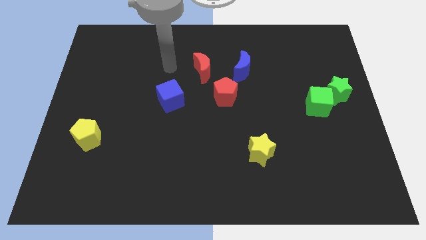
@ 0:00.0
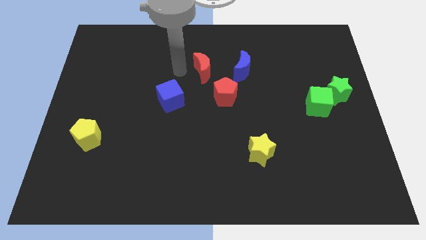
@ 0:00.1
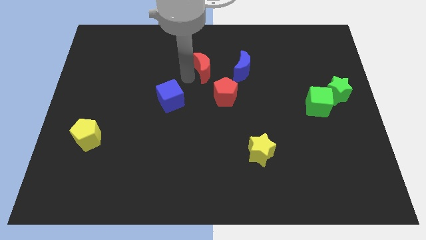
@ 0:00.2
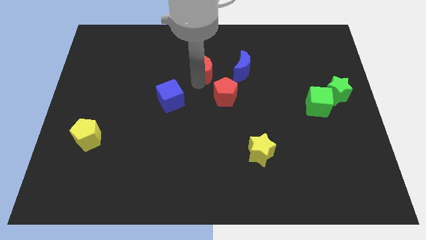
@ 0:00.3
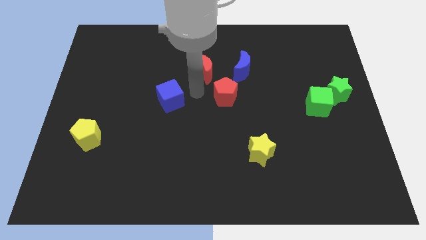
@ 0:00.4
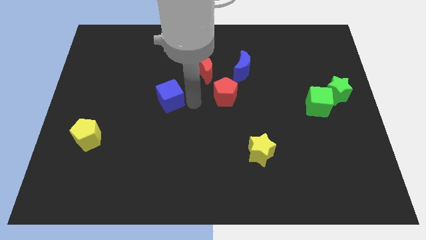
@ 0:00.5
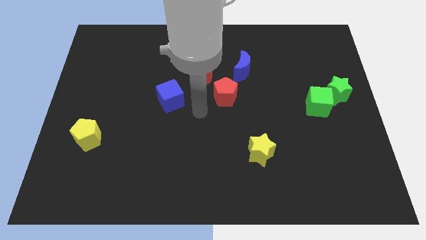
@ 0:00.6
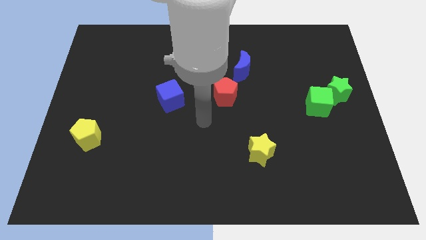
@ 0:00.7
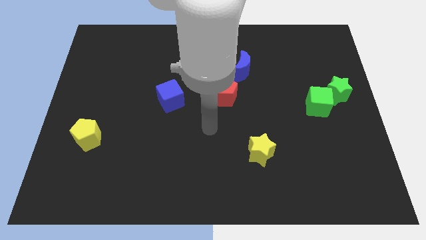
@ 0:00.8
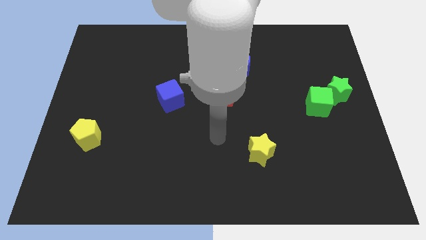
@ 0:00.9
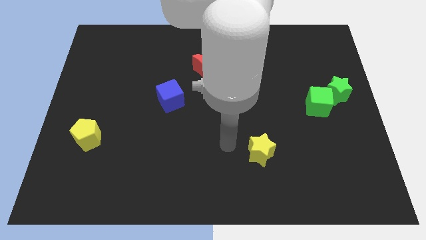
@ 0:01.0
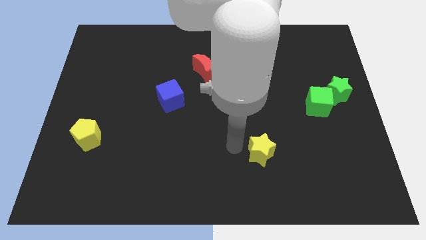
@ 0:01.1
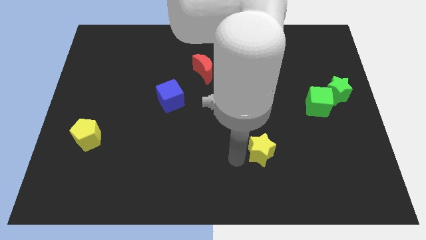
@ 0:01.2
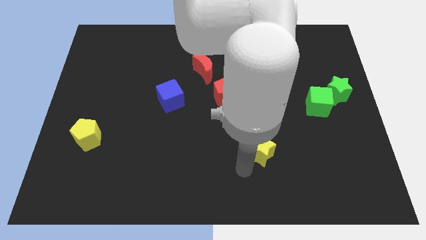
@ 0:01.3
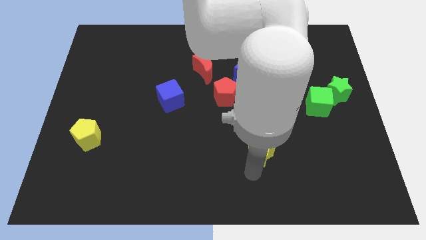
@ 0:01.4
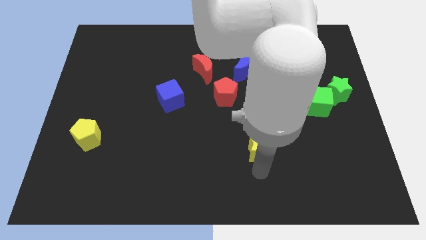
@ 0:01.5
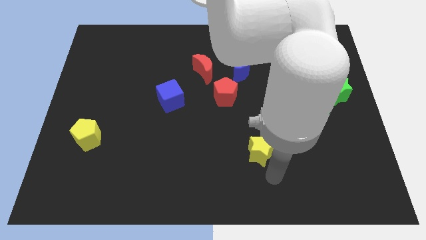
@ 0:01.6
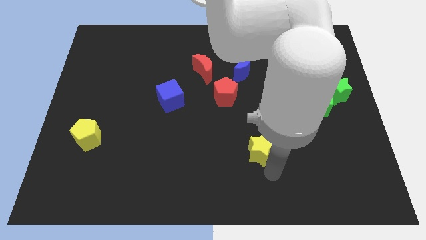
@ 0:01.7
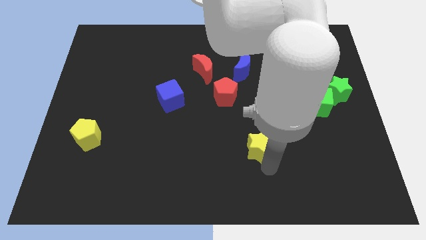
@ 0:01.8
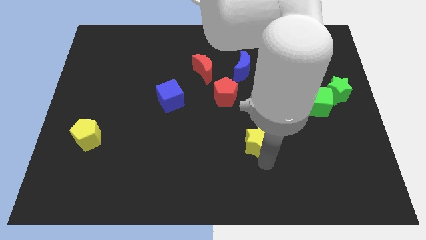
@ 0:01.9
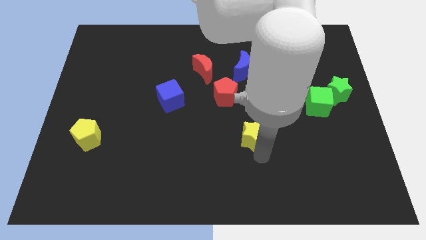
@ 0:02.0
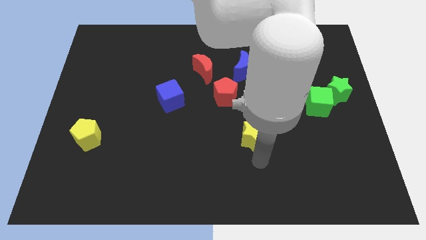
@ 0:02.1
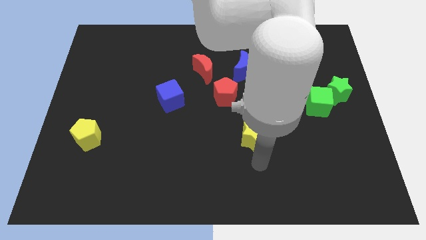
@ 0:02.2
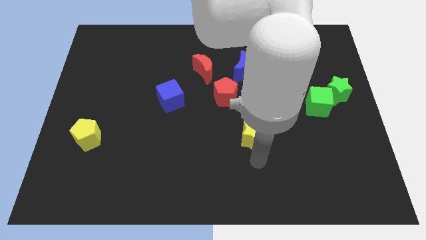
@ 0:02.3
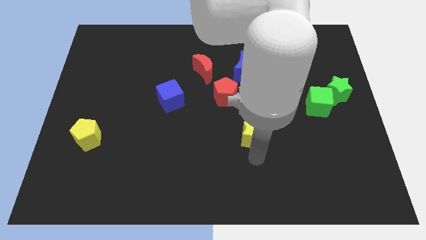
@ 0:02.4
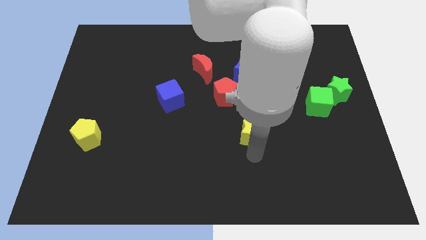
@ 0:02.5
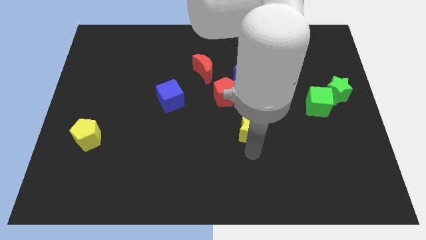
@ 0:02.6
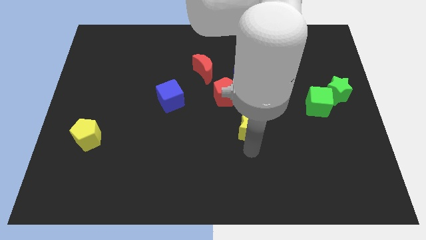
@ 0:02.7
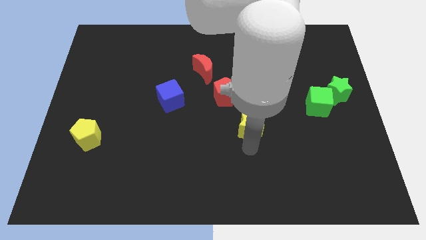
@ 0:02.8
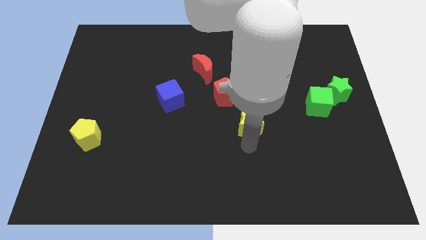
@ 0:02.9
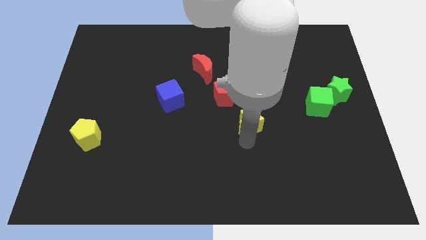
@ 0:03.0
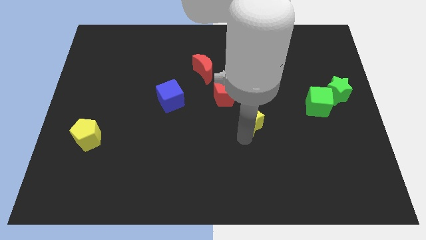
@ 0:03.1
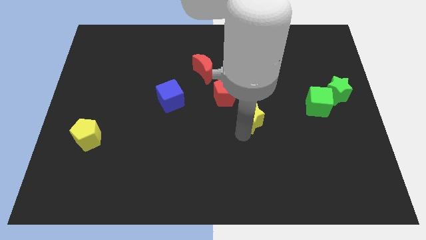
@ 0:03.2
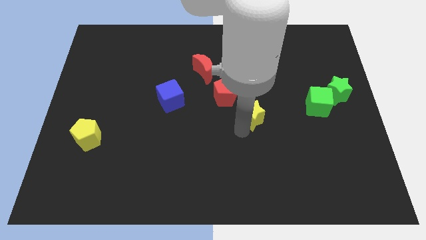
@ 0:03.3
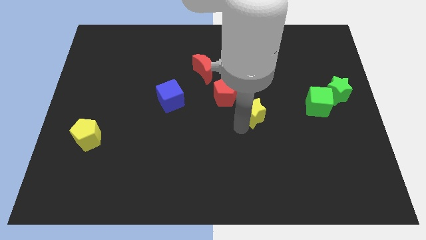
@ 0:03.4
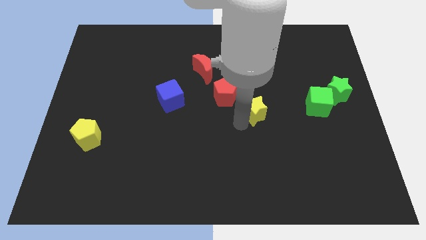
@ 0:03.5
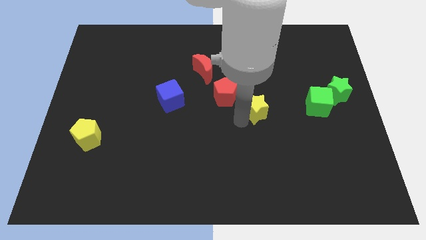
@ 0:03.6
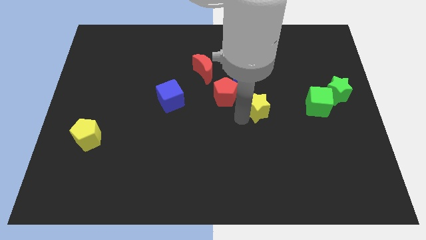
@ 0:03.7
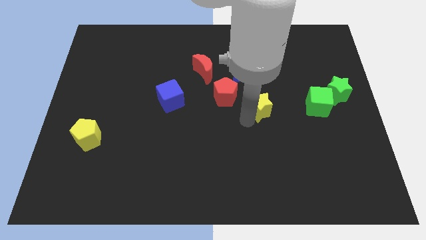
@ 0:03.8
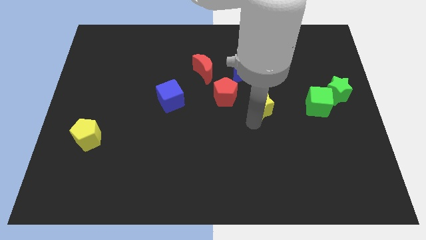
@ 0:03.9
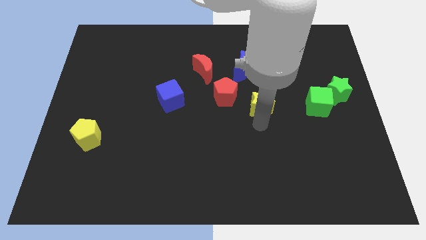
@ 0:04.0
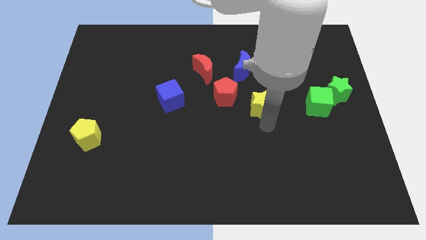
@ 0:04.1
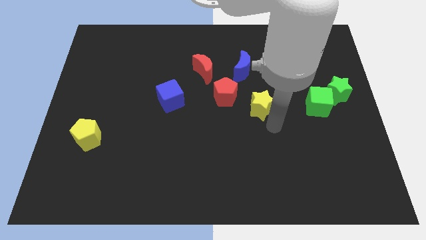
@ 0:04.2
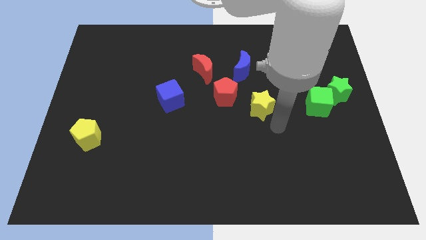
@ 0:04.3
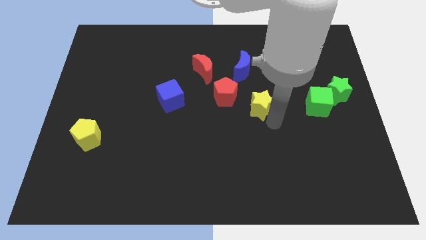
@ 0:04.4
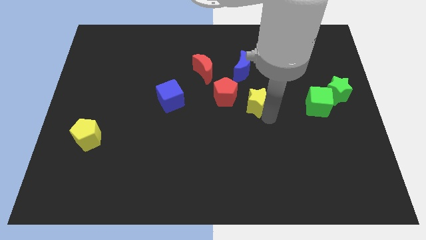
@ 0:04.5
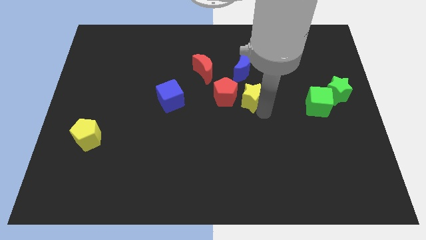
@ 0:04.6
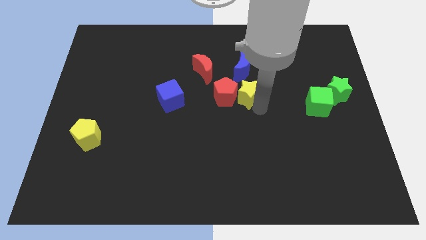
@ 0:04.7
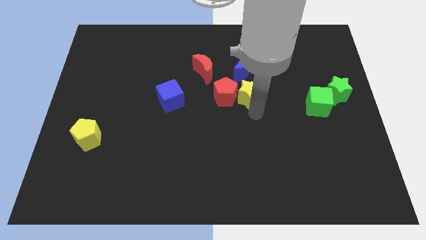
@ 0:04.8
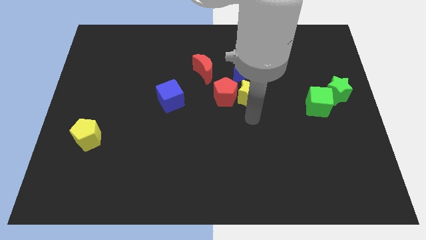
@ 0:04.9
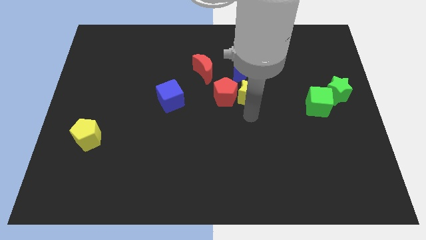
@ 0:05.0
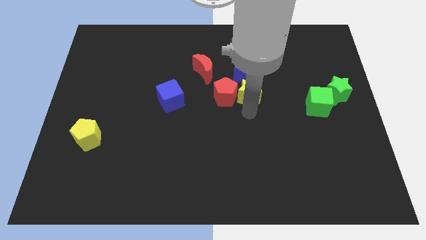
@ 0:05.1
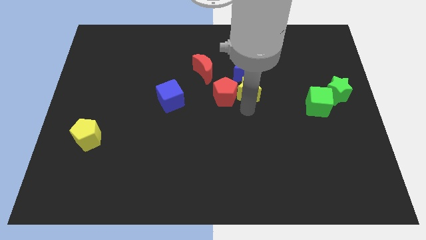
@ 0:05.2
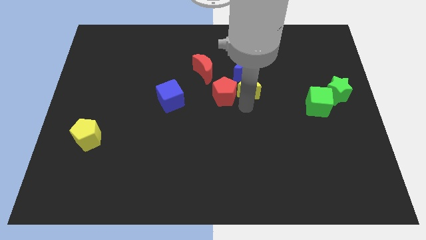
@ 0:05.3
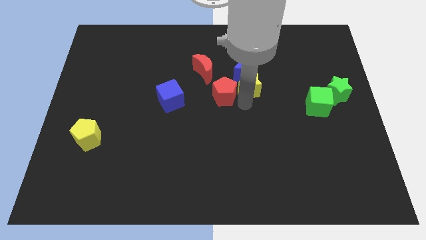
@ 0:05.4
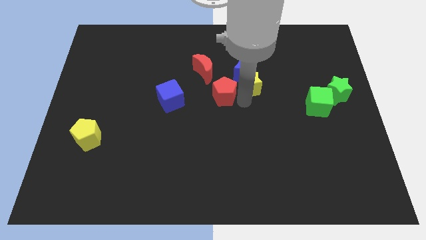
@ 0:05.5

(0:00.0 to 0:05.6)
push the yellow star towards the blue moon

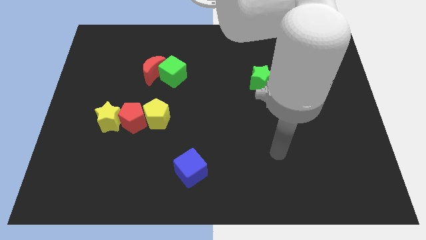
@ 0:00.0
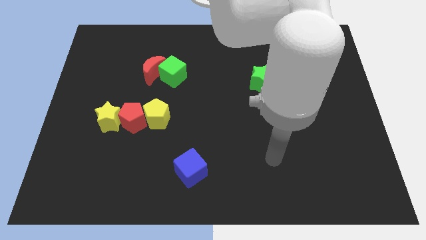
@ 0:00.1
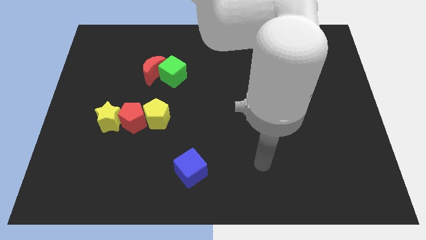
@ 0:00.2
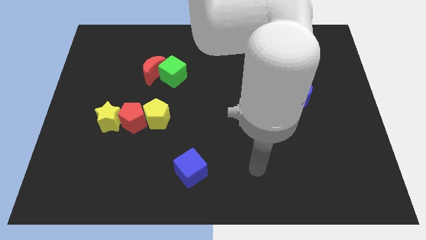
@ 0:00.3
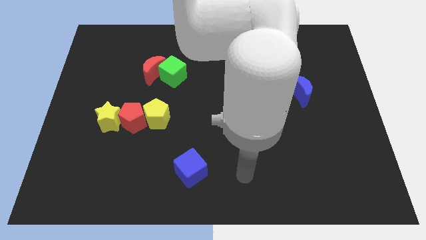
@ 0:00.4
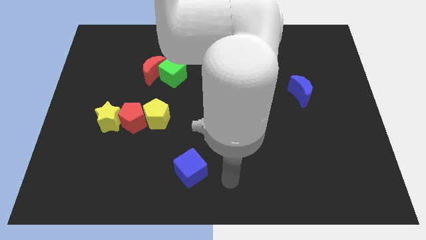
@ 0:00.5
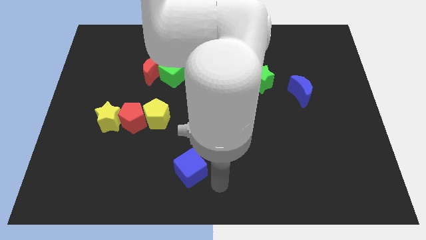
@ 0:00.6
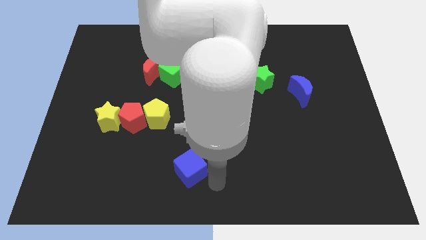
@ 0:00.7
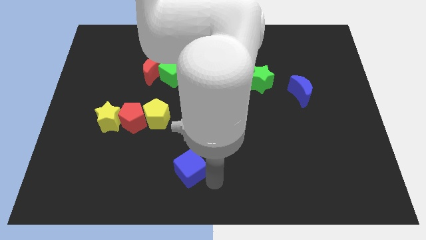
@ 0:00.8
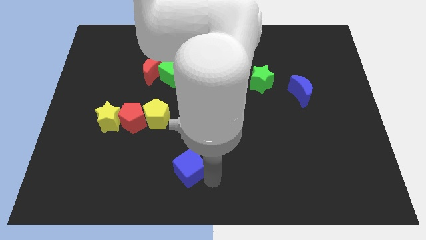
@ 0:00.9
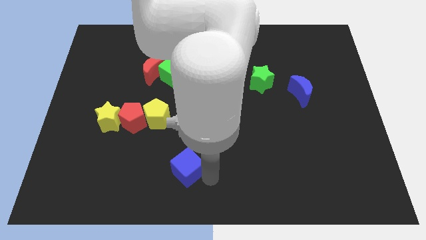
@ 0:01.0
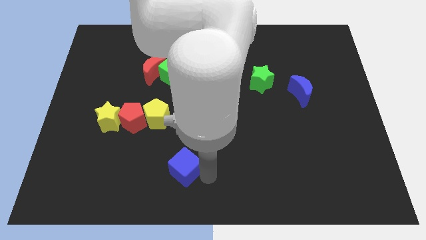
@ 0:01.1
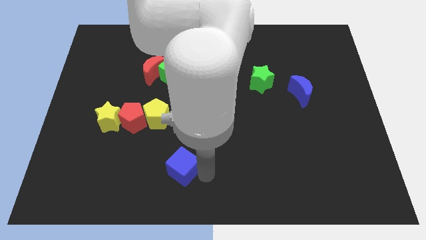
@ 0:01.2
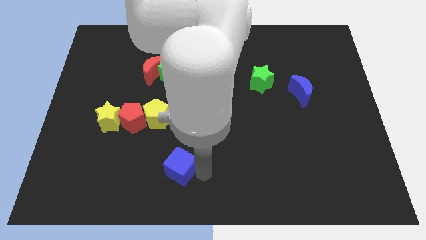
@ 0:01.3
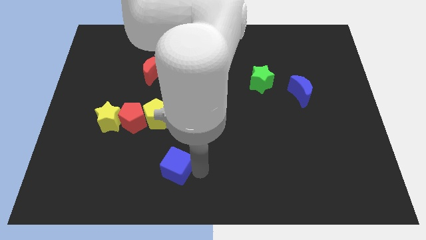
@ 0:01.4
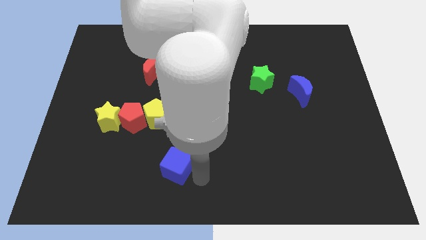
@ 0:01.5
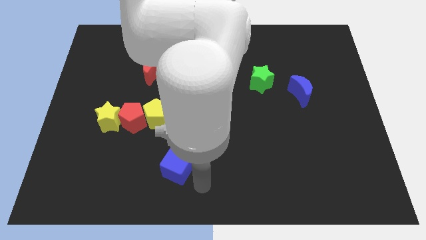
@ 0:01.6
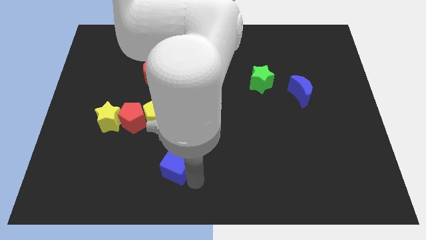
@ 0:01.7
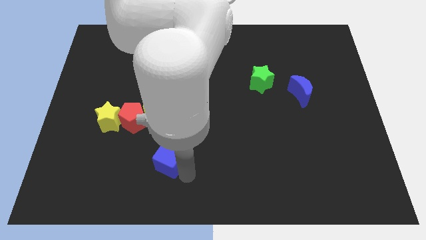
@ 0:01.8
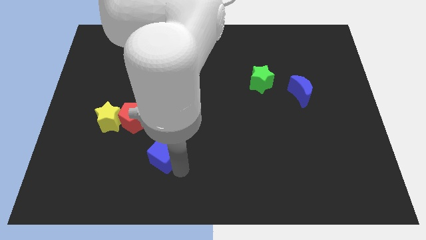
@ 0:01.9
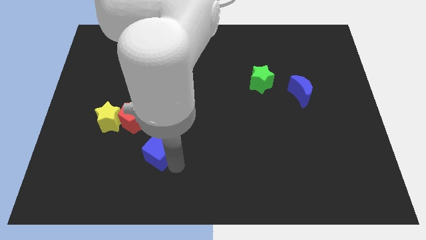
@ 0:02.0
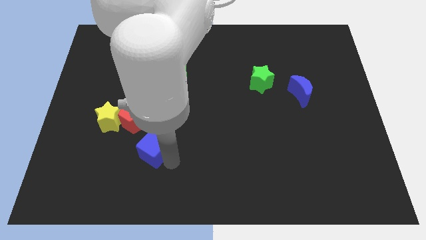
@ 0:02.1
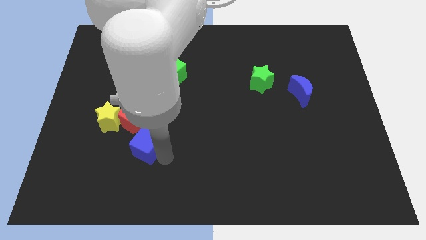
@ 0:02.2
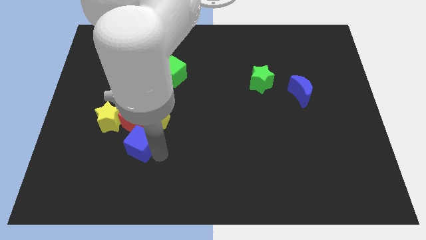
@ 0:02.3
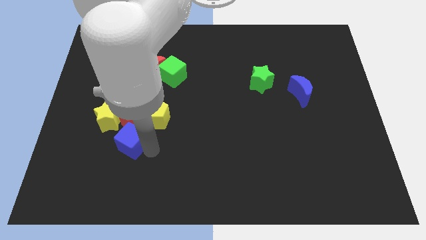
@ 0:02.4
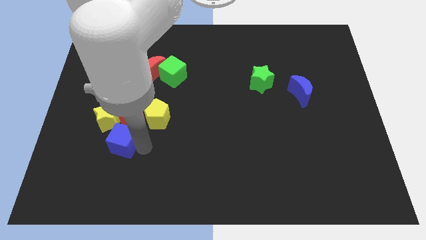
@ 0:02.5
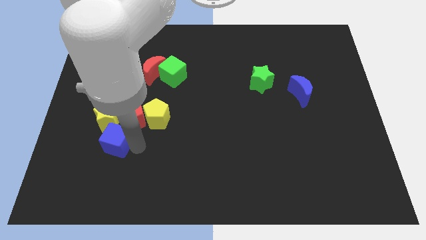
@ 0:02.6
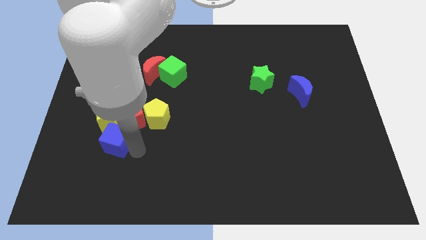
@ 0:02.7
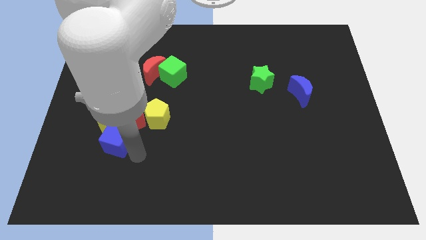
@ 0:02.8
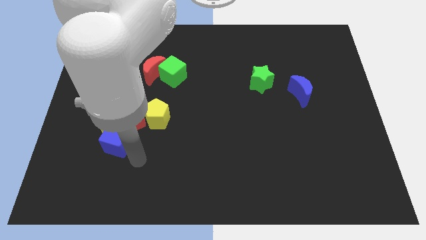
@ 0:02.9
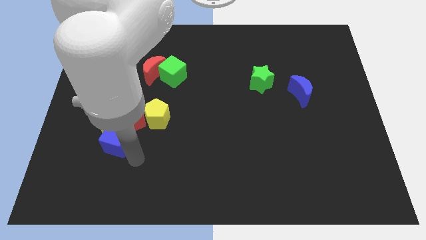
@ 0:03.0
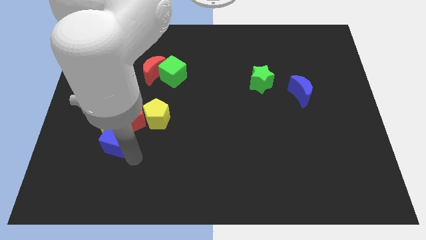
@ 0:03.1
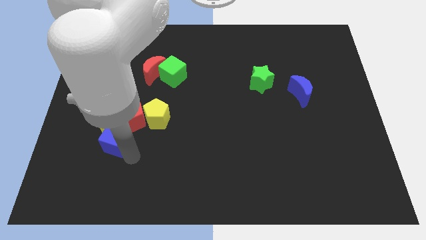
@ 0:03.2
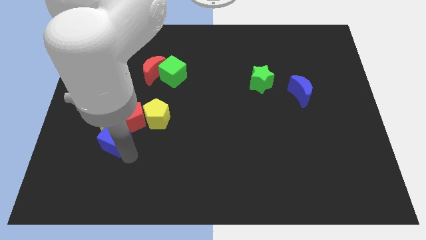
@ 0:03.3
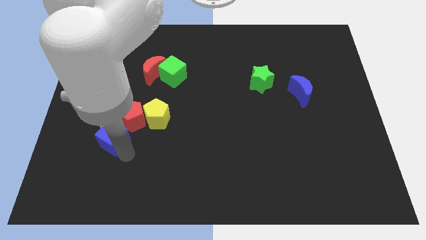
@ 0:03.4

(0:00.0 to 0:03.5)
put the blue cube to the yellow star
